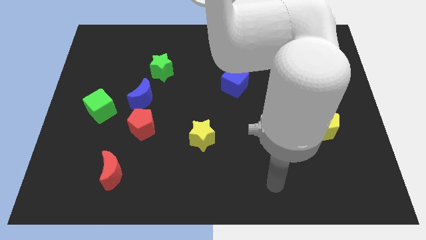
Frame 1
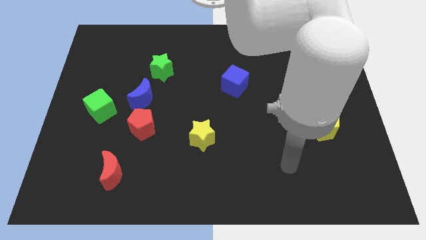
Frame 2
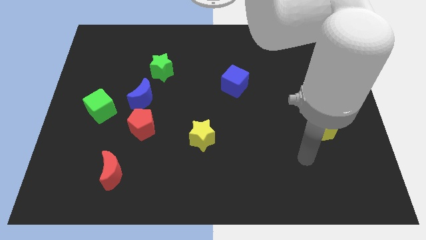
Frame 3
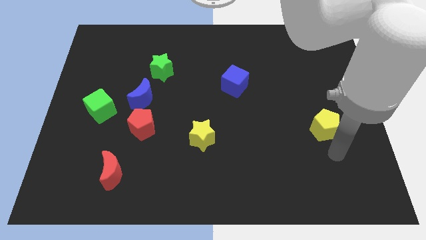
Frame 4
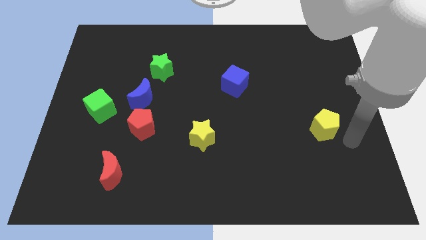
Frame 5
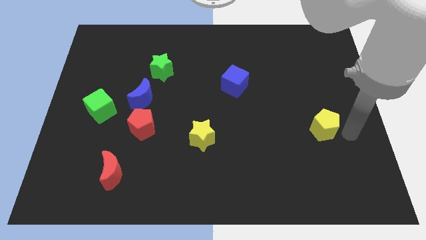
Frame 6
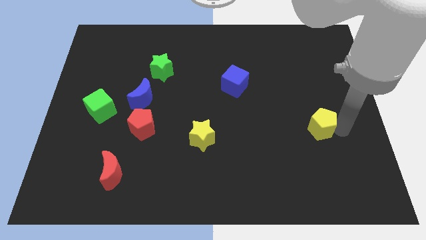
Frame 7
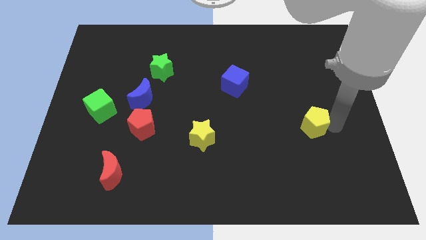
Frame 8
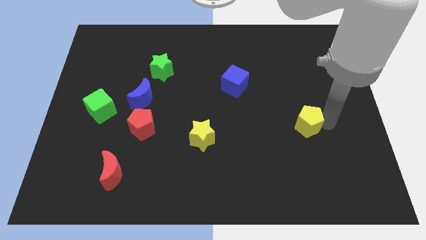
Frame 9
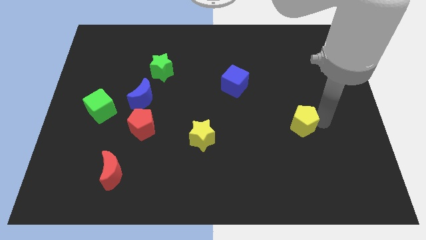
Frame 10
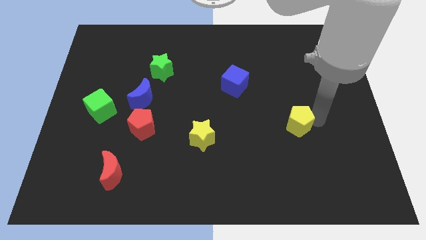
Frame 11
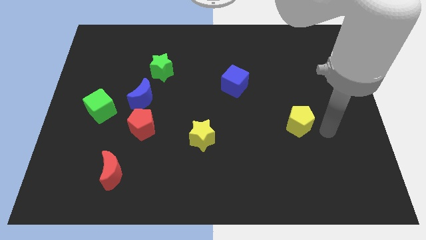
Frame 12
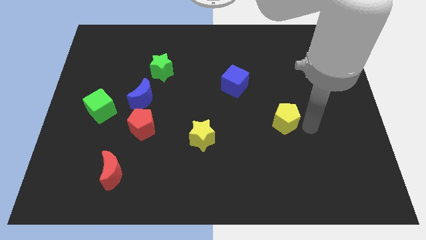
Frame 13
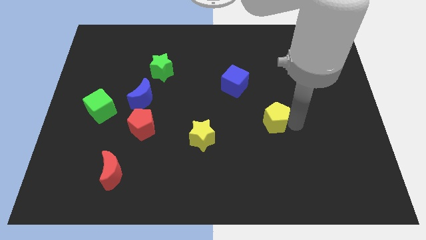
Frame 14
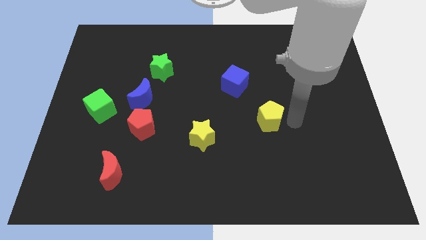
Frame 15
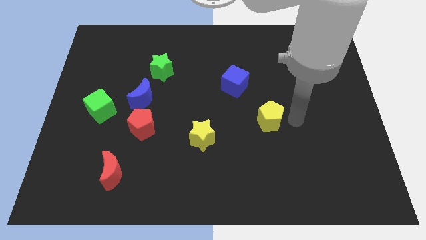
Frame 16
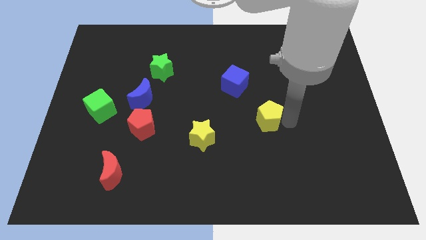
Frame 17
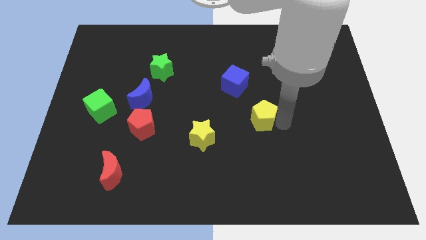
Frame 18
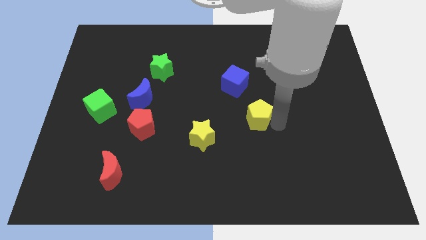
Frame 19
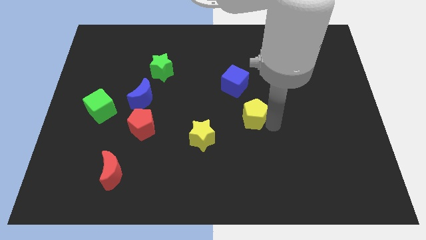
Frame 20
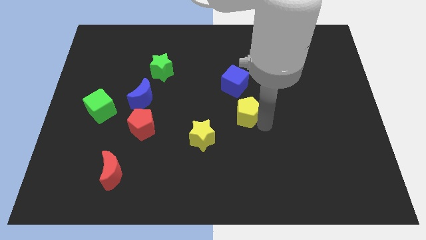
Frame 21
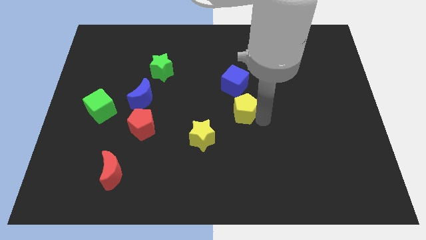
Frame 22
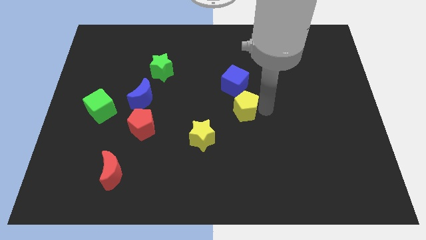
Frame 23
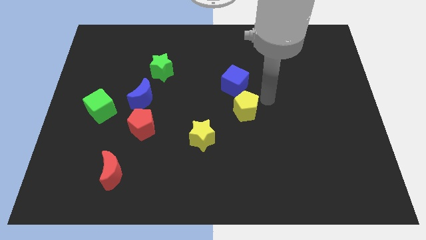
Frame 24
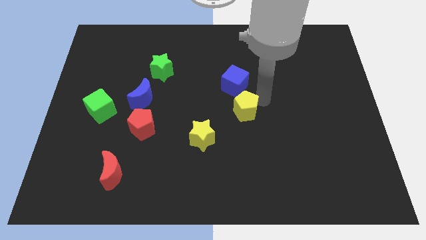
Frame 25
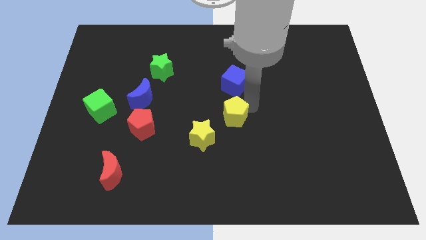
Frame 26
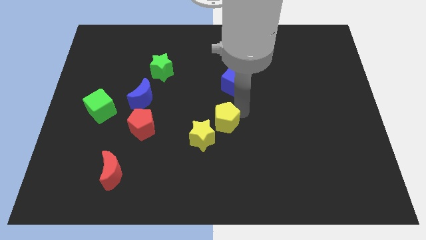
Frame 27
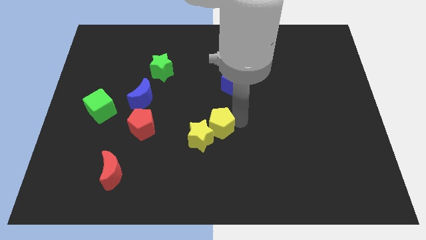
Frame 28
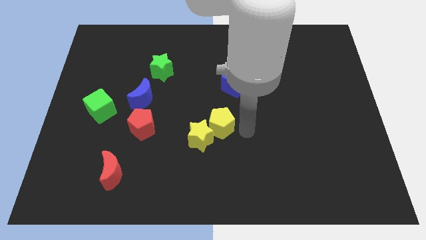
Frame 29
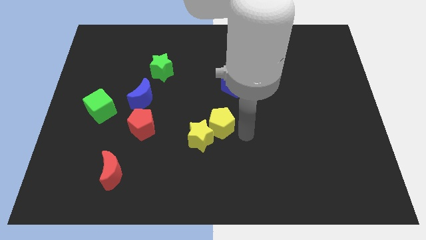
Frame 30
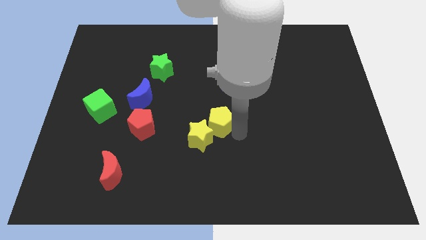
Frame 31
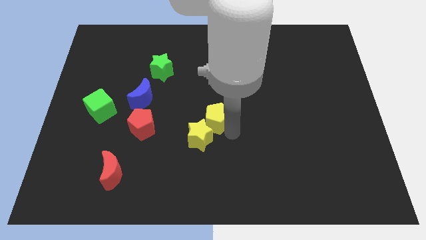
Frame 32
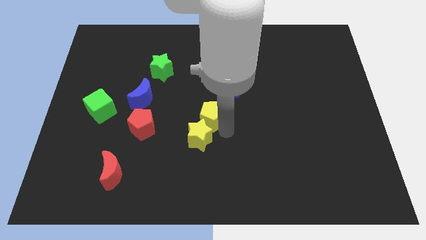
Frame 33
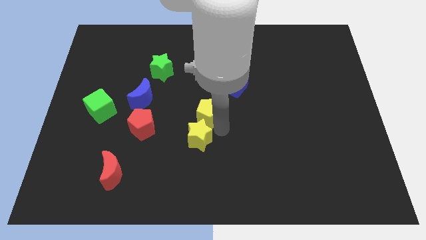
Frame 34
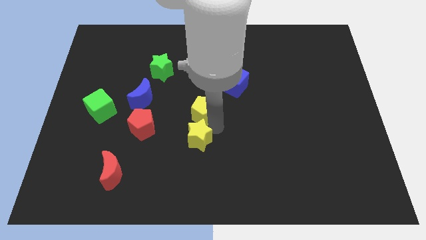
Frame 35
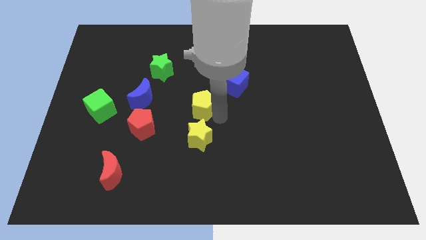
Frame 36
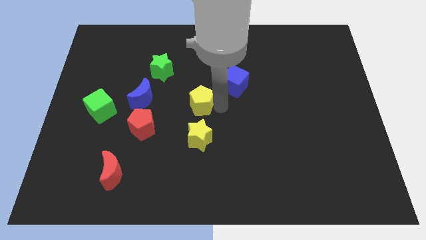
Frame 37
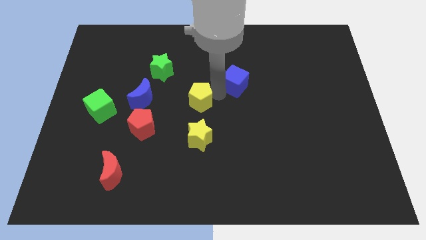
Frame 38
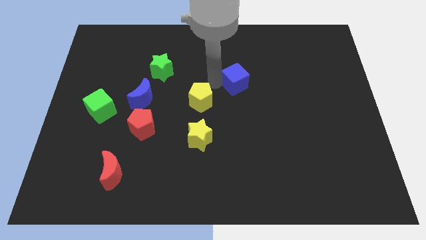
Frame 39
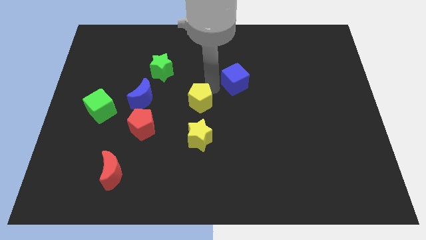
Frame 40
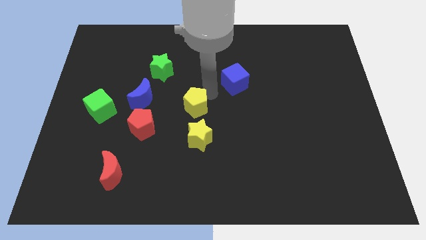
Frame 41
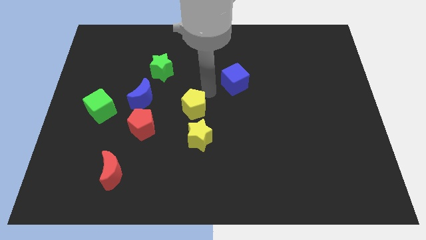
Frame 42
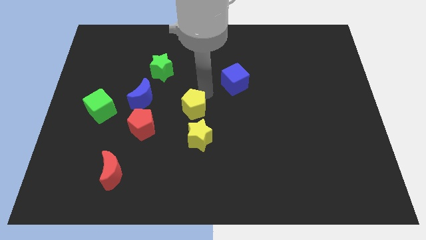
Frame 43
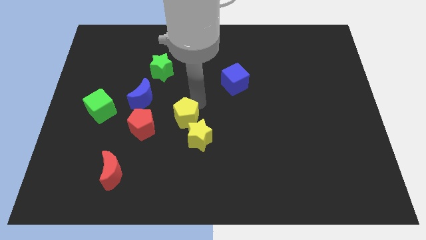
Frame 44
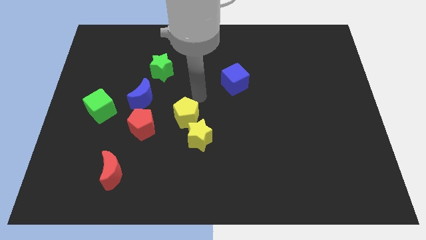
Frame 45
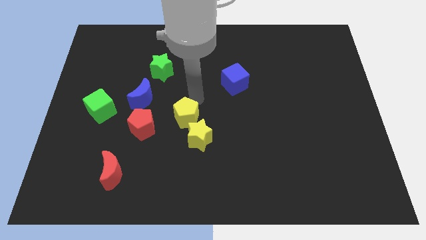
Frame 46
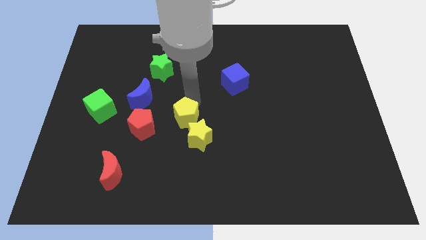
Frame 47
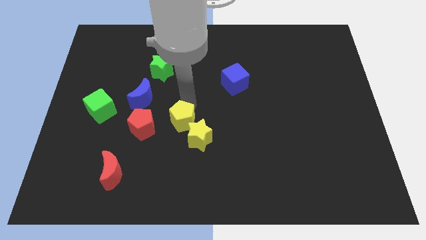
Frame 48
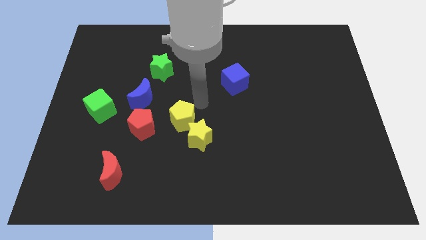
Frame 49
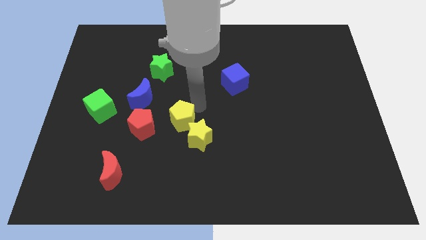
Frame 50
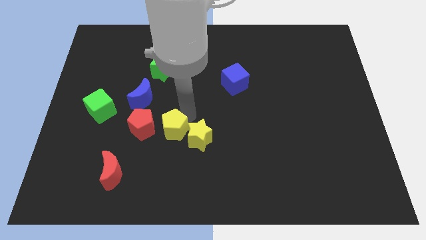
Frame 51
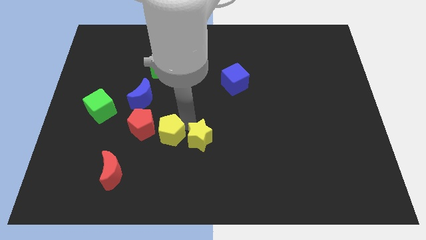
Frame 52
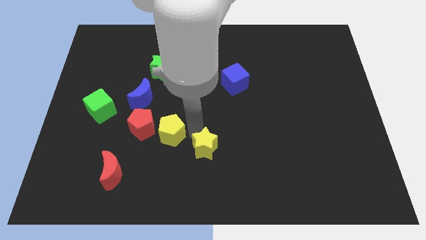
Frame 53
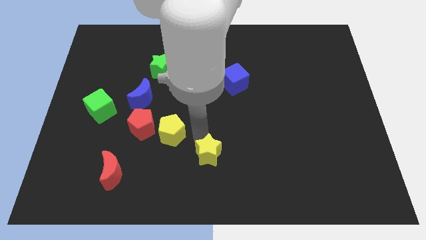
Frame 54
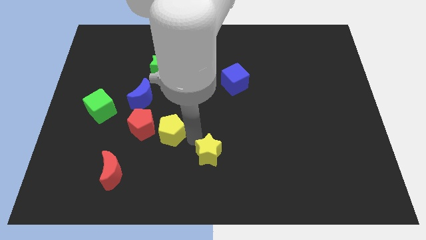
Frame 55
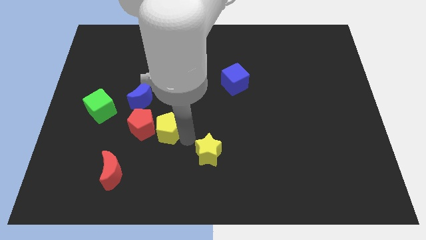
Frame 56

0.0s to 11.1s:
push the yellow pentagon to the red pentagon

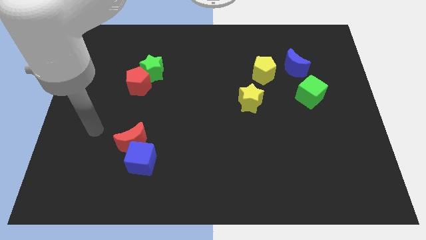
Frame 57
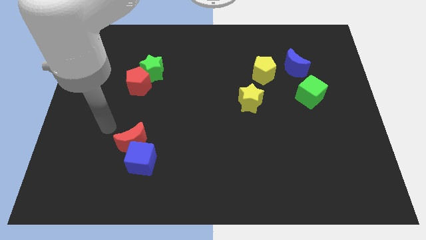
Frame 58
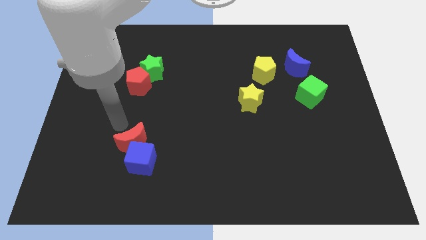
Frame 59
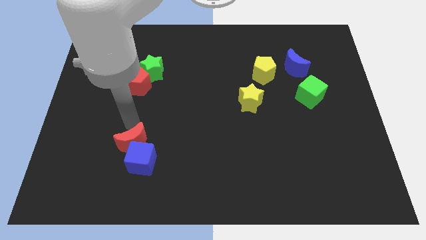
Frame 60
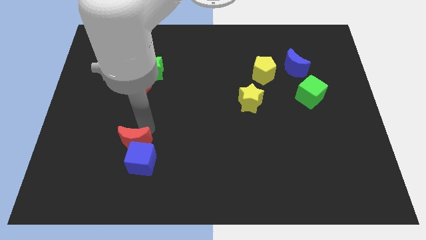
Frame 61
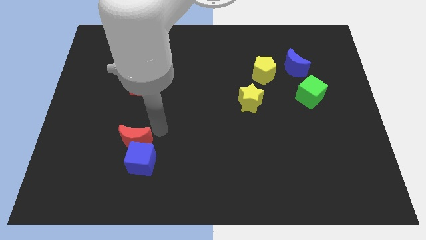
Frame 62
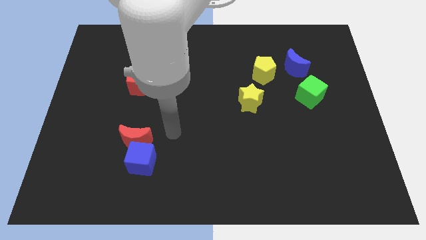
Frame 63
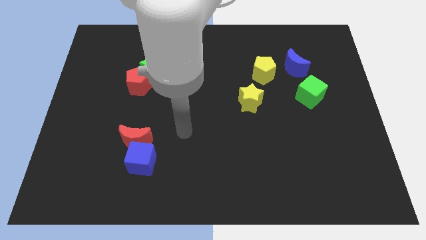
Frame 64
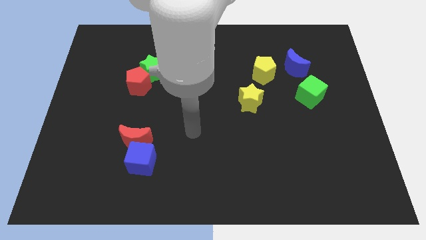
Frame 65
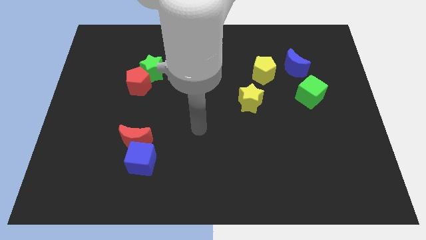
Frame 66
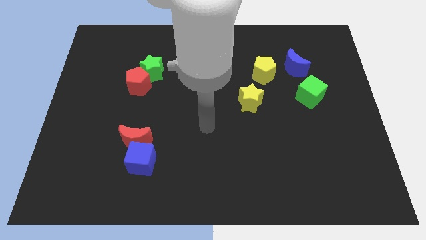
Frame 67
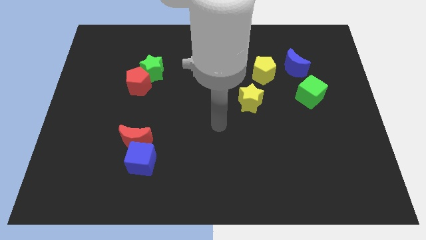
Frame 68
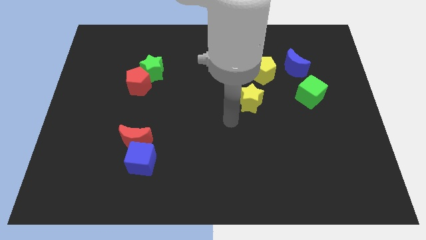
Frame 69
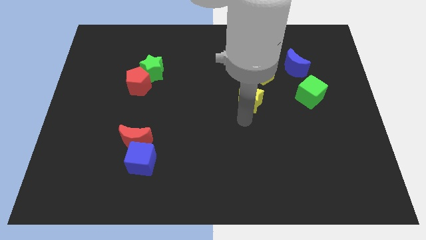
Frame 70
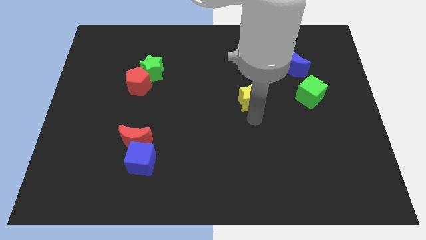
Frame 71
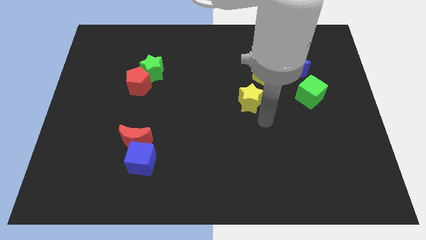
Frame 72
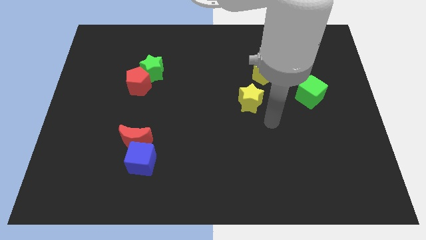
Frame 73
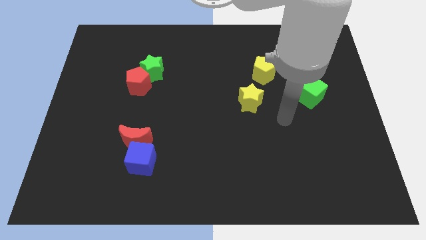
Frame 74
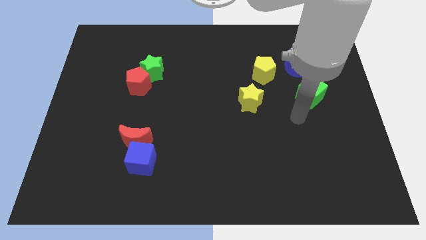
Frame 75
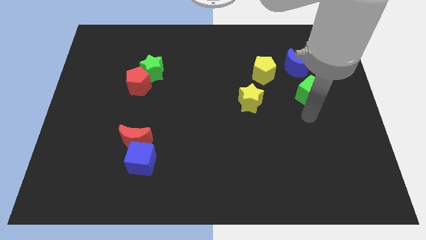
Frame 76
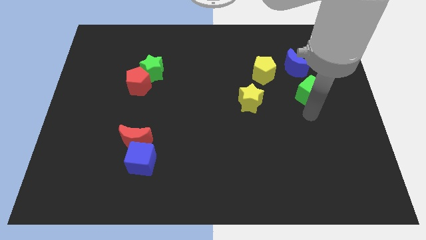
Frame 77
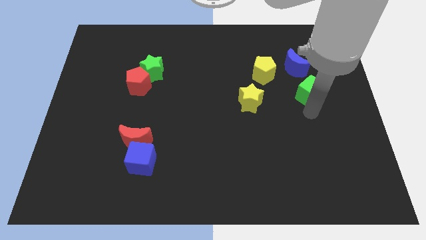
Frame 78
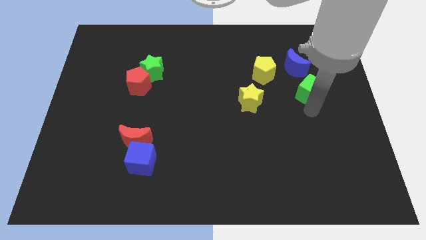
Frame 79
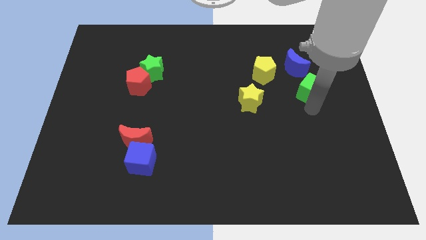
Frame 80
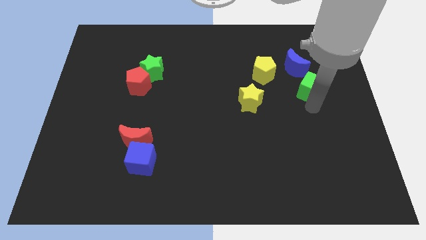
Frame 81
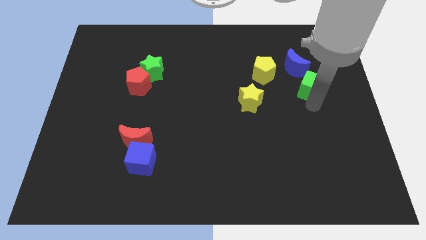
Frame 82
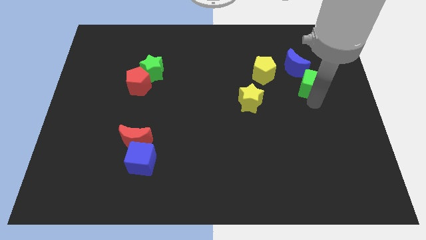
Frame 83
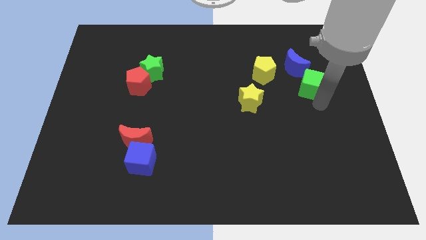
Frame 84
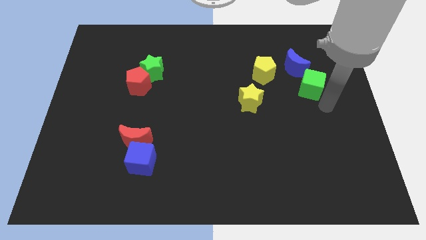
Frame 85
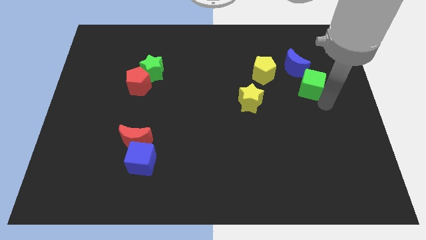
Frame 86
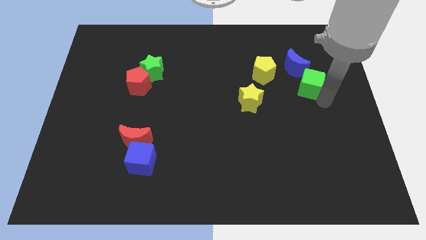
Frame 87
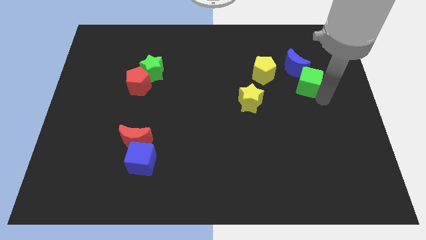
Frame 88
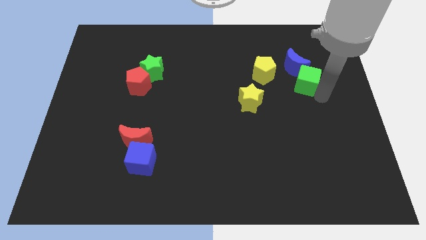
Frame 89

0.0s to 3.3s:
put the green cube to the blue moon
